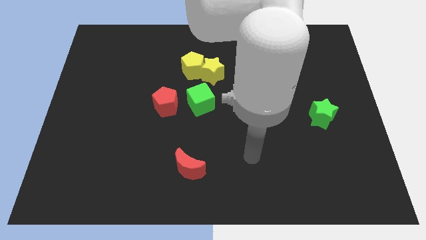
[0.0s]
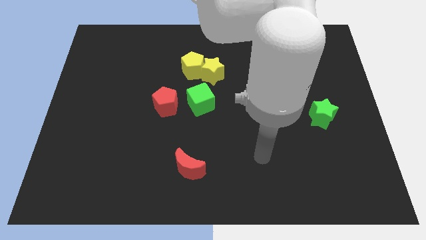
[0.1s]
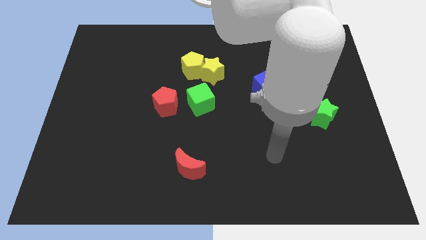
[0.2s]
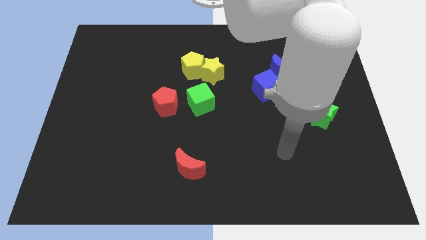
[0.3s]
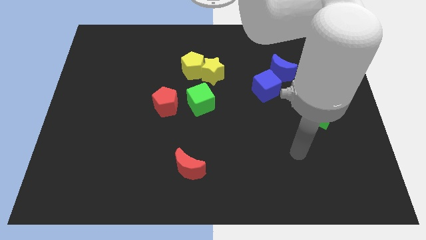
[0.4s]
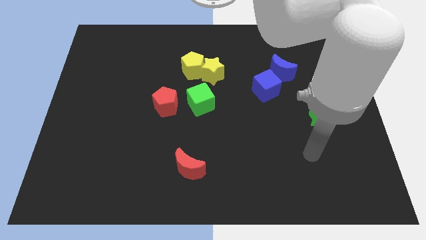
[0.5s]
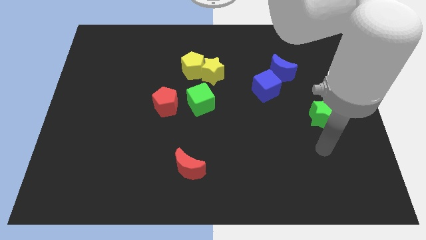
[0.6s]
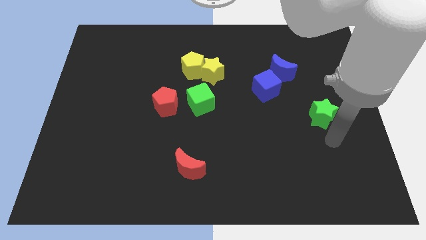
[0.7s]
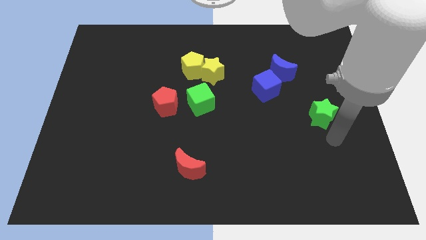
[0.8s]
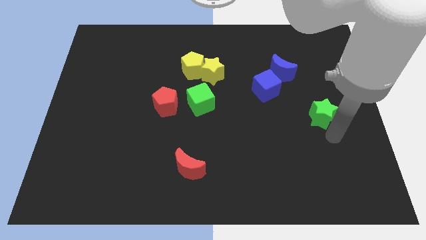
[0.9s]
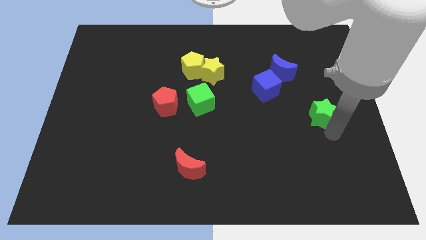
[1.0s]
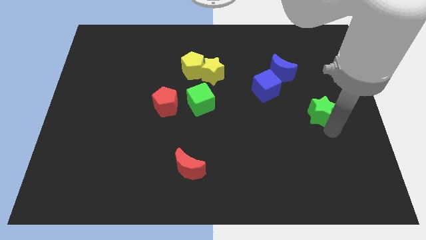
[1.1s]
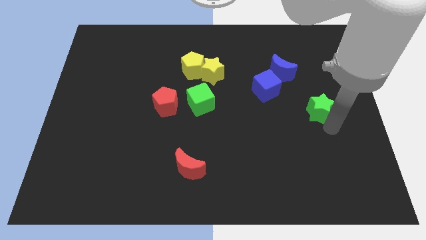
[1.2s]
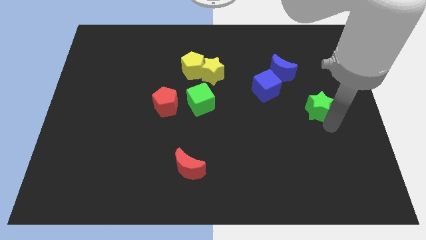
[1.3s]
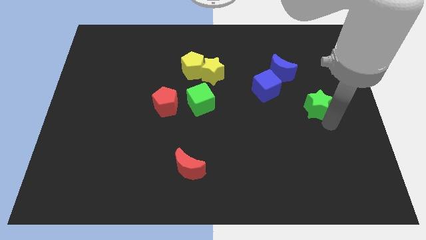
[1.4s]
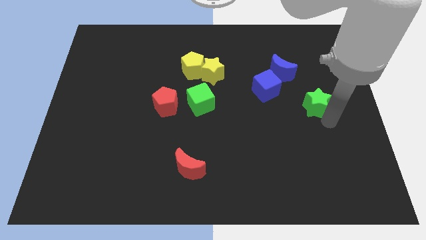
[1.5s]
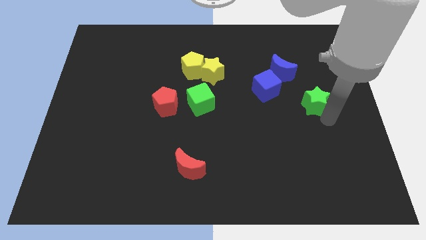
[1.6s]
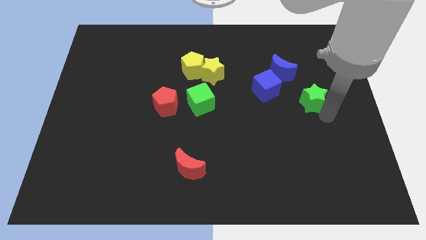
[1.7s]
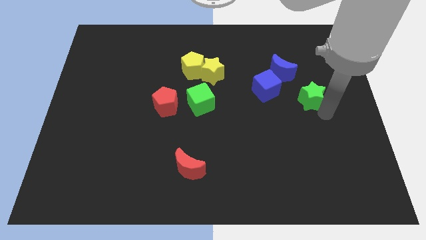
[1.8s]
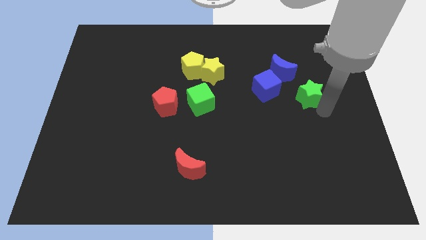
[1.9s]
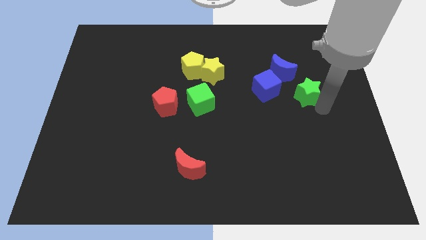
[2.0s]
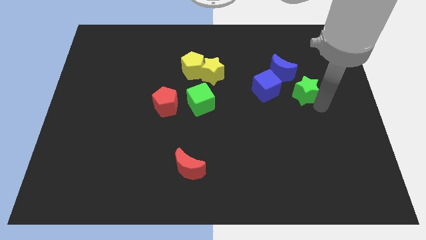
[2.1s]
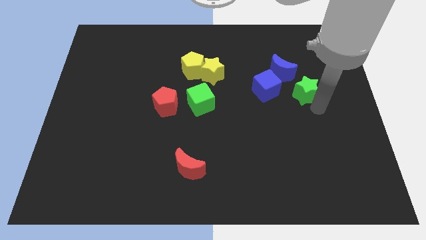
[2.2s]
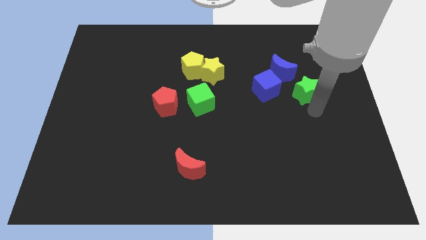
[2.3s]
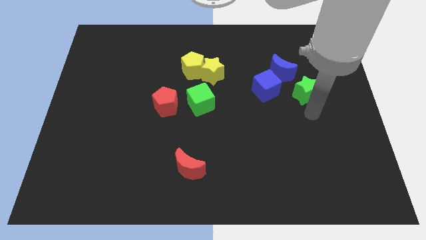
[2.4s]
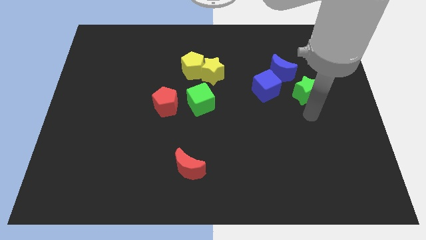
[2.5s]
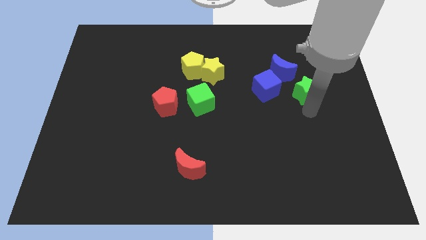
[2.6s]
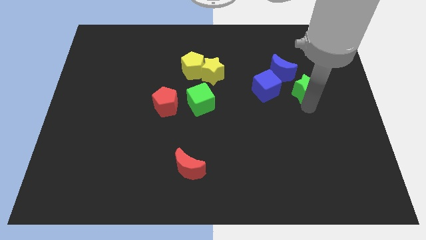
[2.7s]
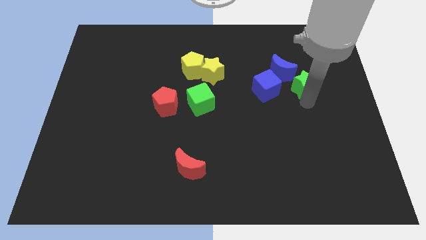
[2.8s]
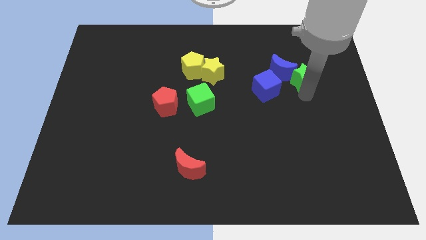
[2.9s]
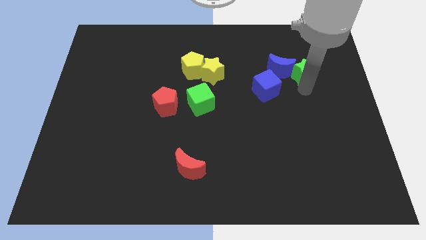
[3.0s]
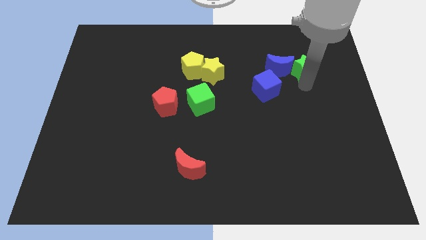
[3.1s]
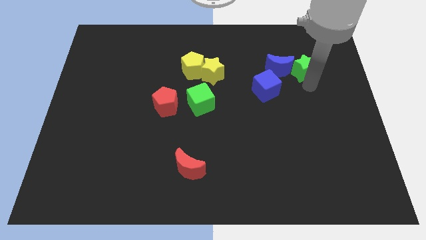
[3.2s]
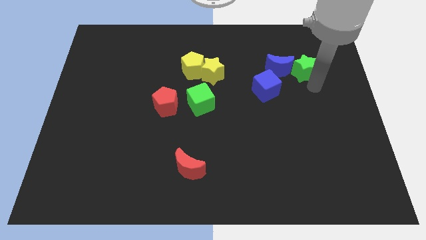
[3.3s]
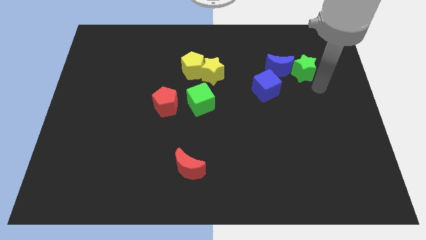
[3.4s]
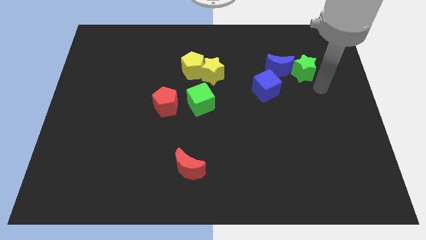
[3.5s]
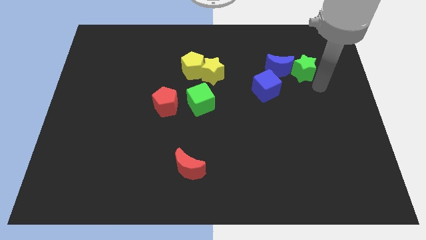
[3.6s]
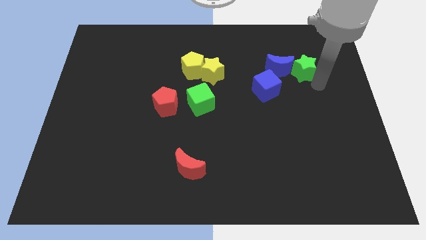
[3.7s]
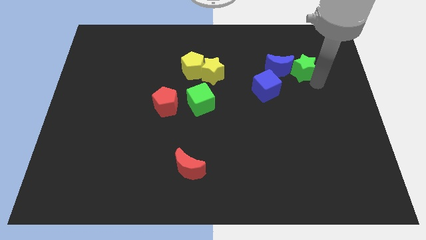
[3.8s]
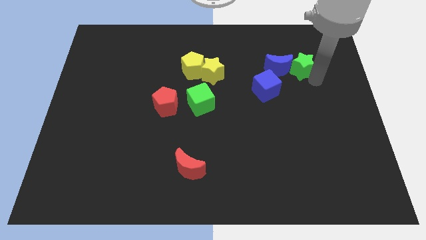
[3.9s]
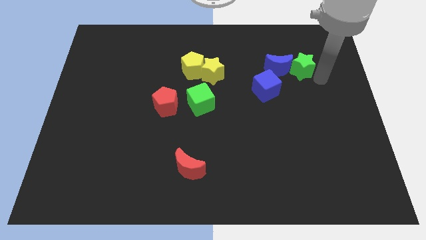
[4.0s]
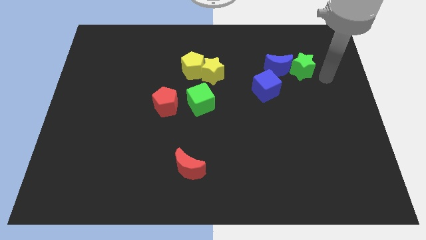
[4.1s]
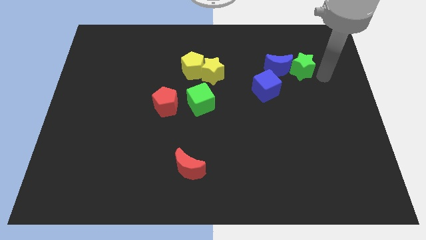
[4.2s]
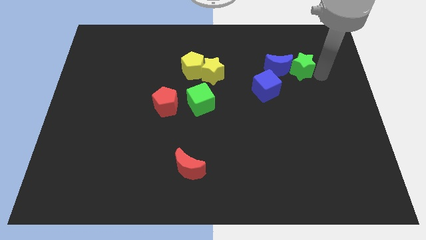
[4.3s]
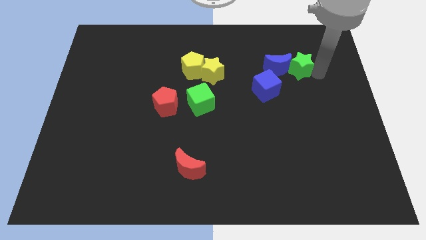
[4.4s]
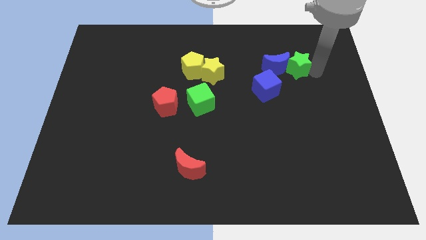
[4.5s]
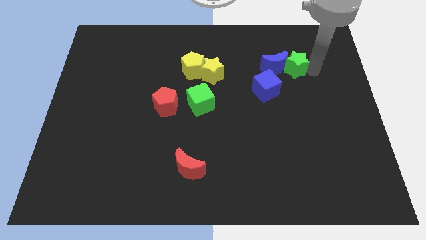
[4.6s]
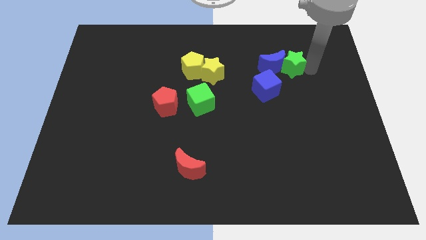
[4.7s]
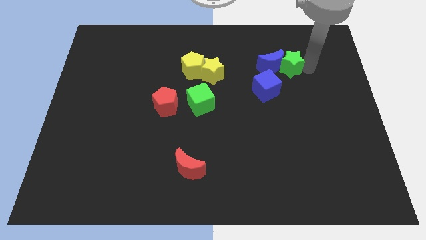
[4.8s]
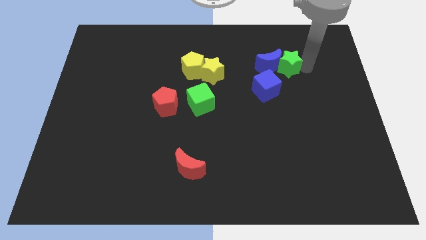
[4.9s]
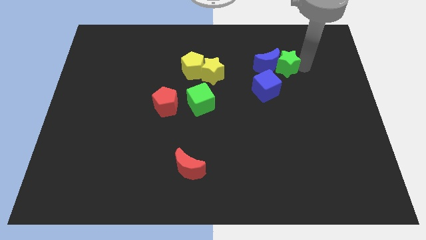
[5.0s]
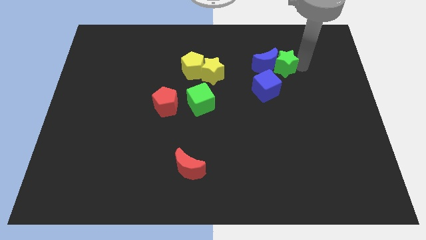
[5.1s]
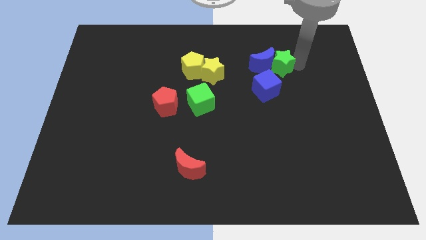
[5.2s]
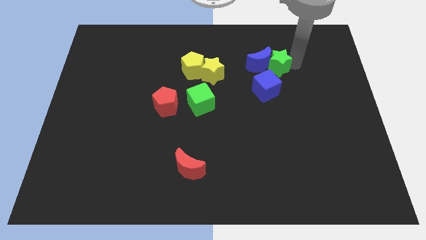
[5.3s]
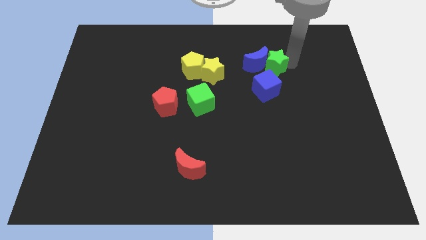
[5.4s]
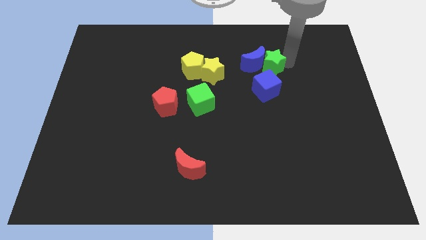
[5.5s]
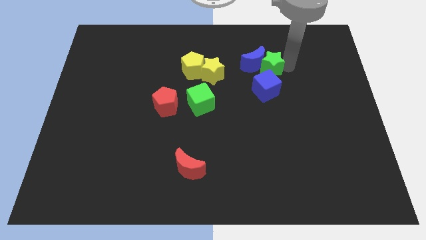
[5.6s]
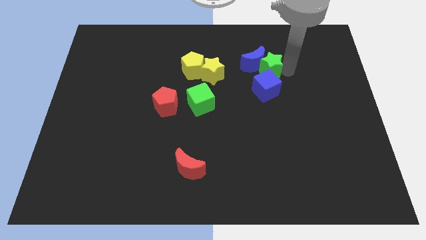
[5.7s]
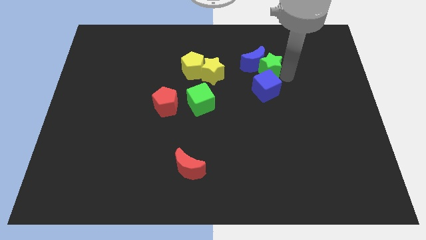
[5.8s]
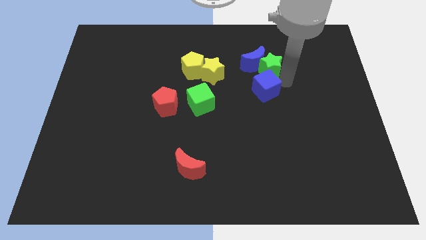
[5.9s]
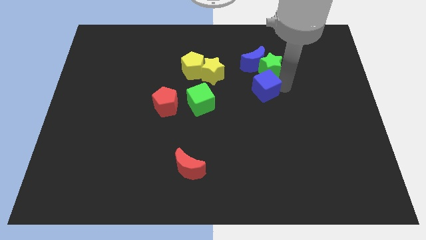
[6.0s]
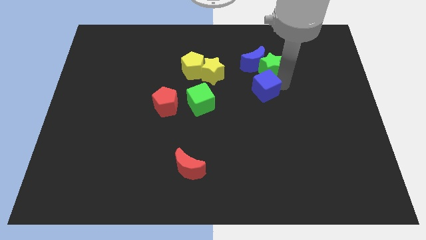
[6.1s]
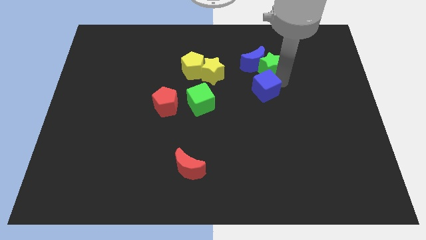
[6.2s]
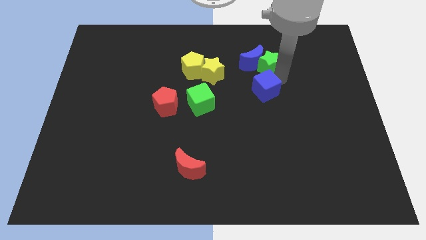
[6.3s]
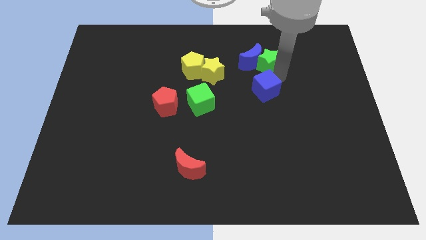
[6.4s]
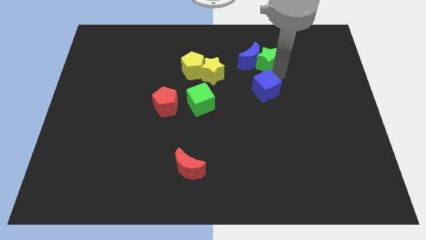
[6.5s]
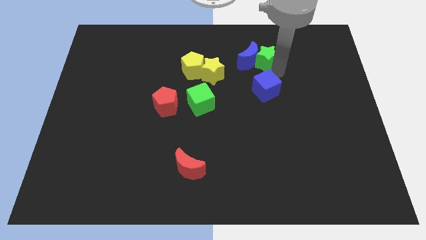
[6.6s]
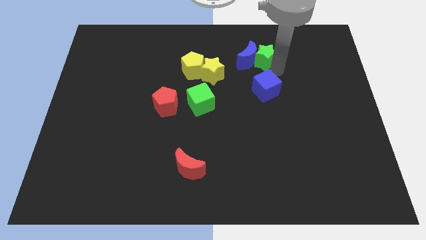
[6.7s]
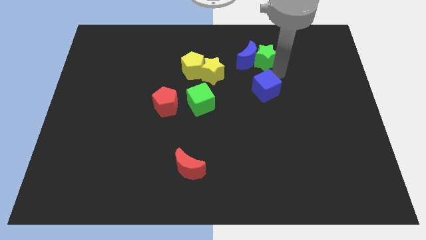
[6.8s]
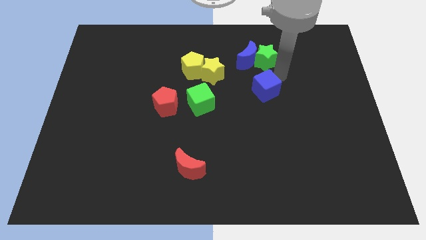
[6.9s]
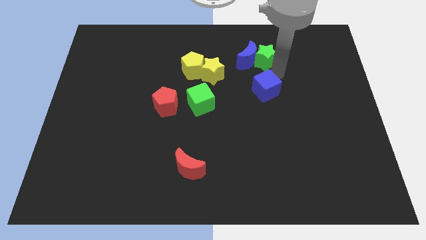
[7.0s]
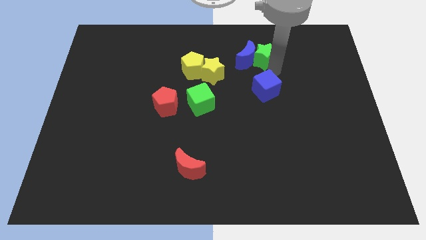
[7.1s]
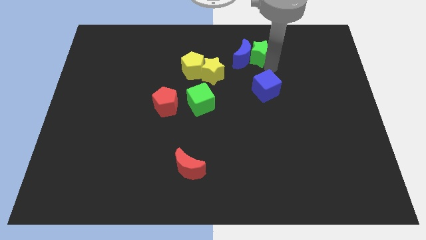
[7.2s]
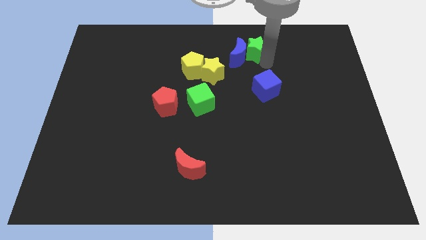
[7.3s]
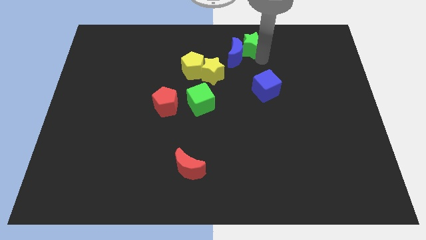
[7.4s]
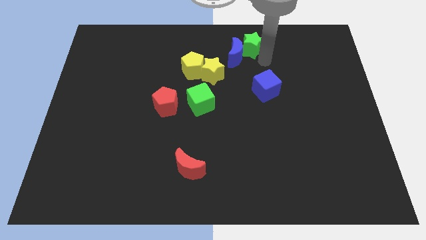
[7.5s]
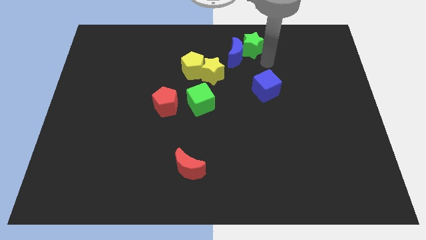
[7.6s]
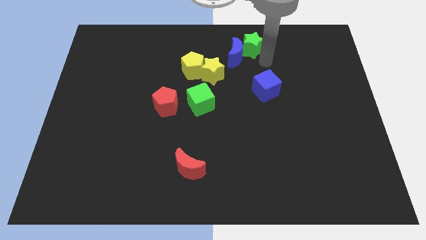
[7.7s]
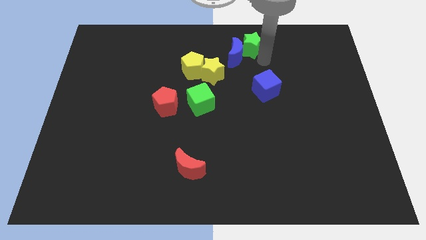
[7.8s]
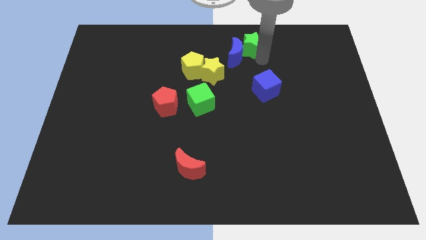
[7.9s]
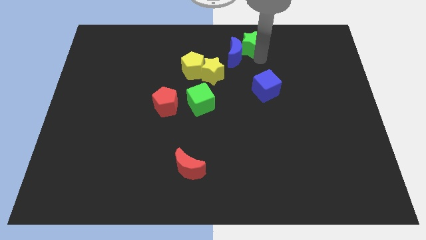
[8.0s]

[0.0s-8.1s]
move the green star to the towards your base
